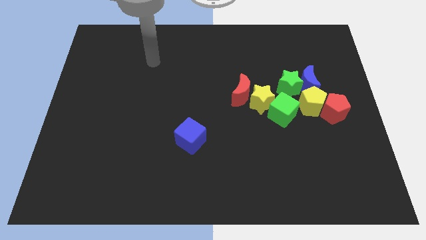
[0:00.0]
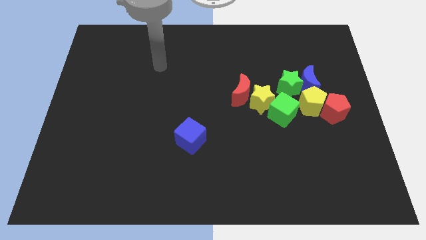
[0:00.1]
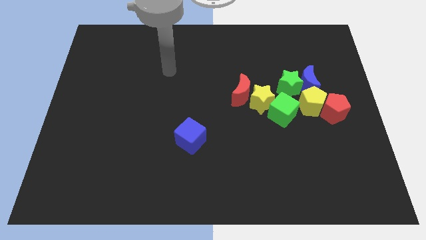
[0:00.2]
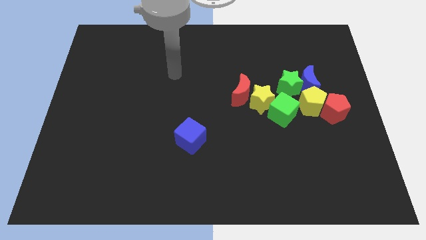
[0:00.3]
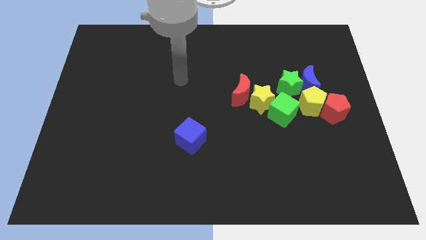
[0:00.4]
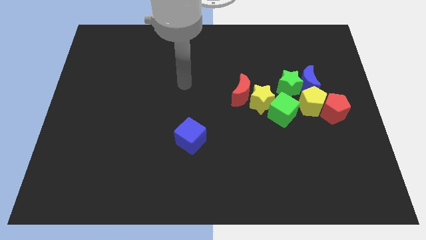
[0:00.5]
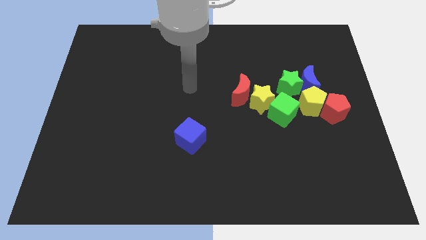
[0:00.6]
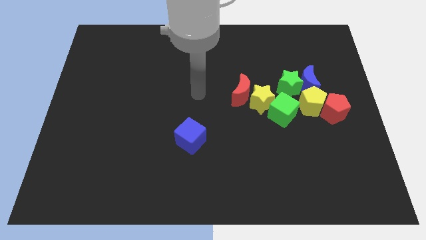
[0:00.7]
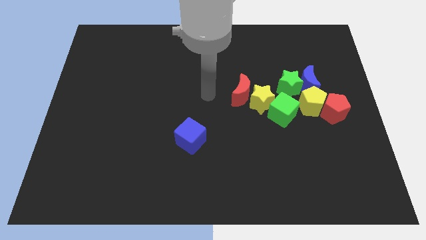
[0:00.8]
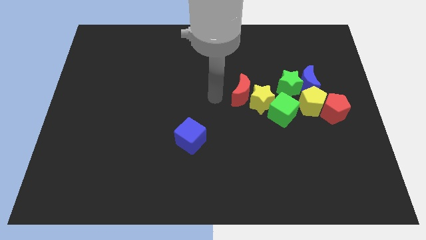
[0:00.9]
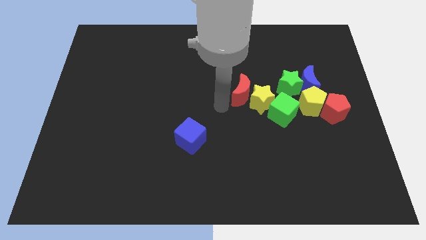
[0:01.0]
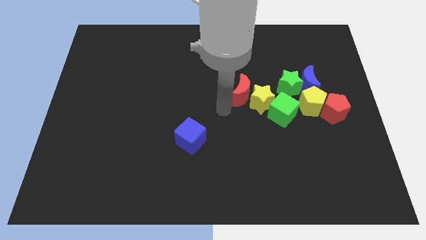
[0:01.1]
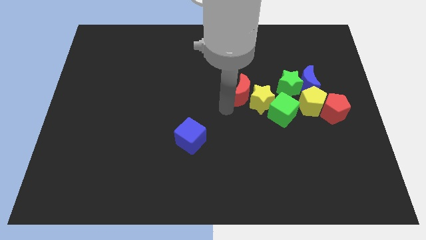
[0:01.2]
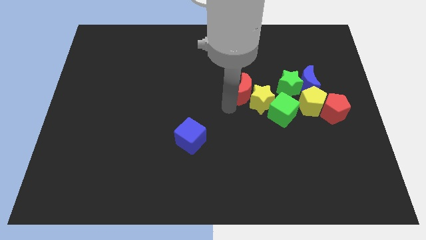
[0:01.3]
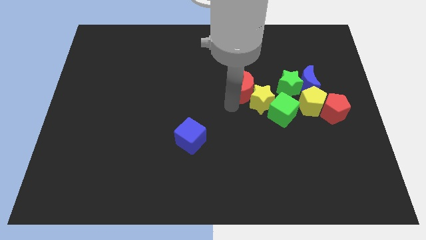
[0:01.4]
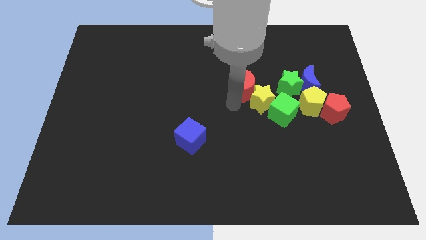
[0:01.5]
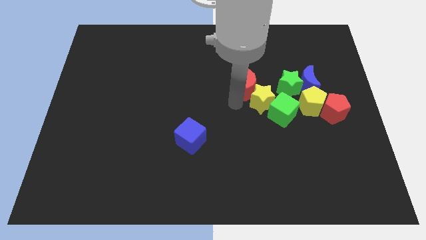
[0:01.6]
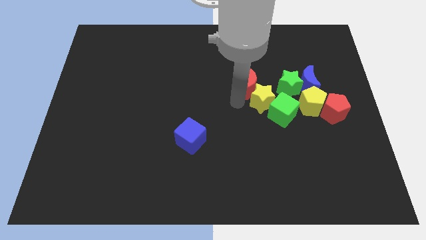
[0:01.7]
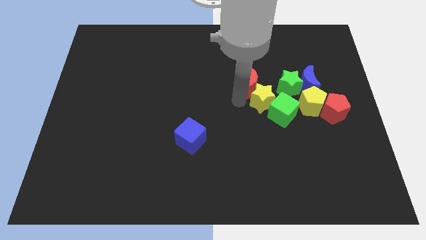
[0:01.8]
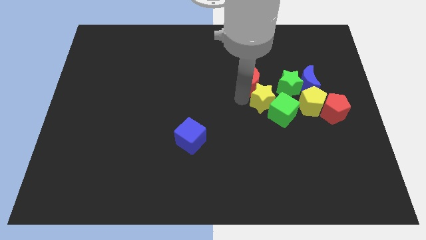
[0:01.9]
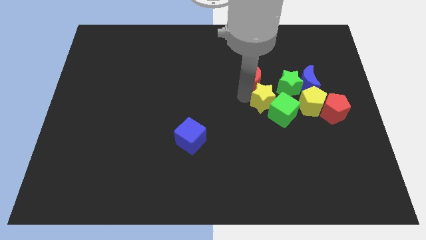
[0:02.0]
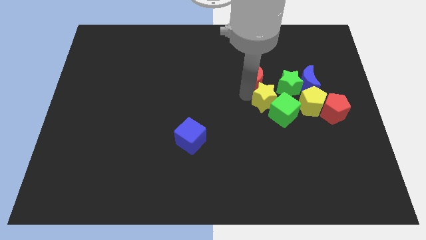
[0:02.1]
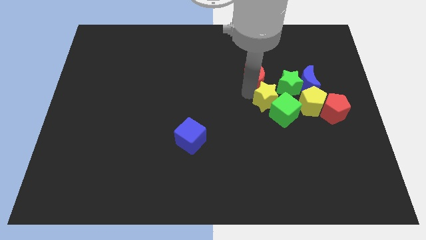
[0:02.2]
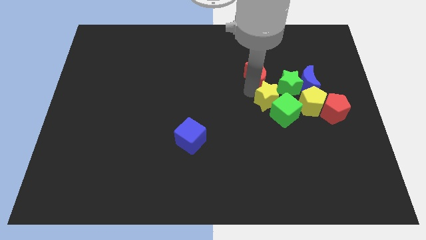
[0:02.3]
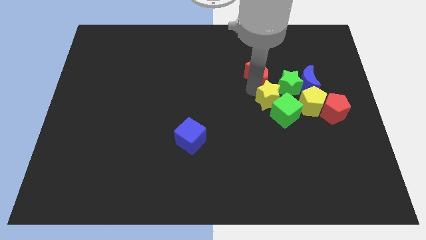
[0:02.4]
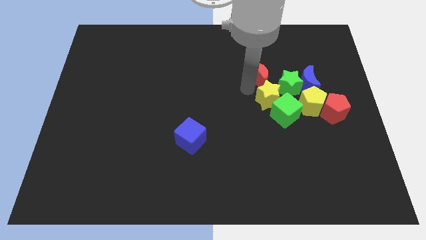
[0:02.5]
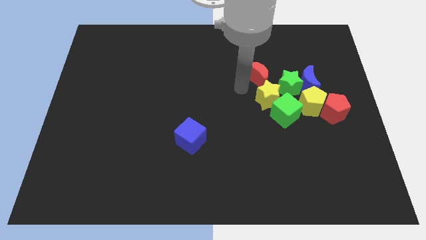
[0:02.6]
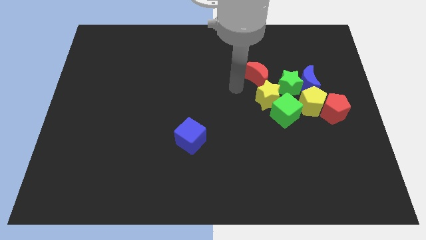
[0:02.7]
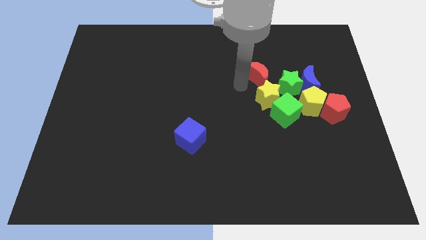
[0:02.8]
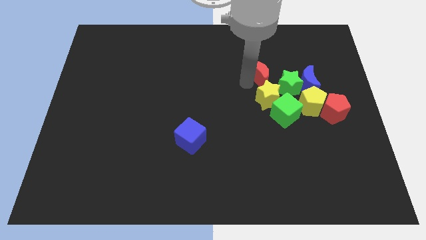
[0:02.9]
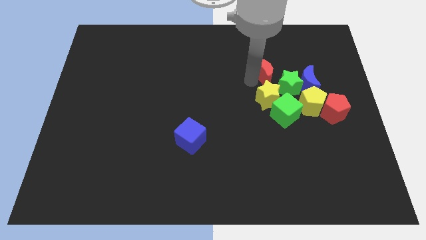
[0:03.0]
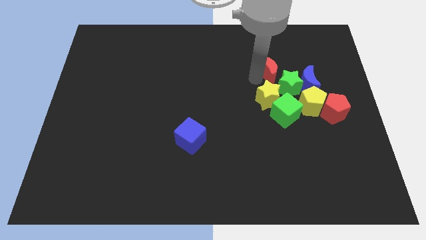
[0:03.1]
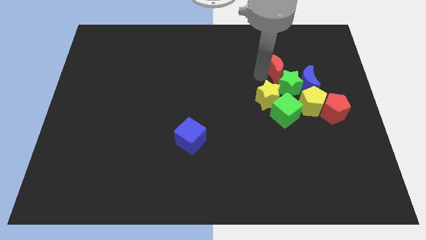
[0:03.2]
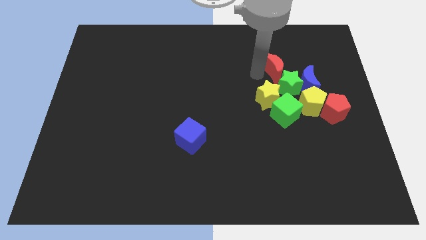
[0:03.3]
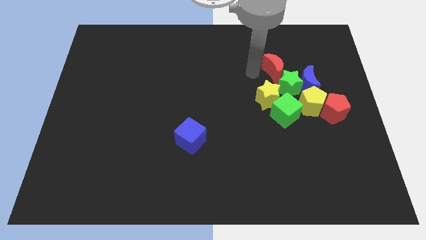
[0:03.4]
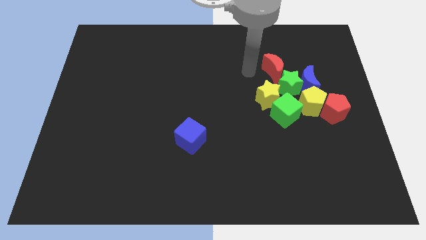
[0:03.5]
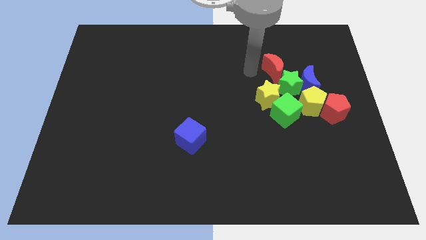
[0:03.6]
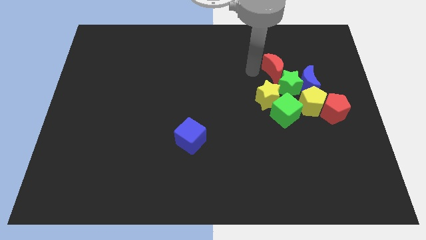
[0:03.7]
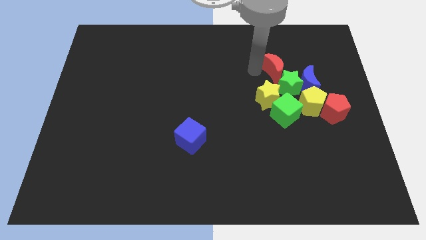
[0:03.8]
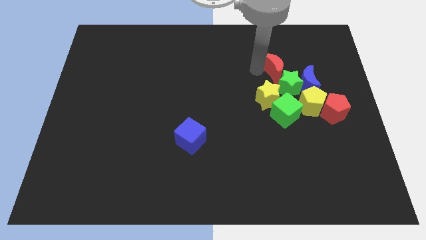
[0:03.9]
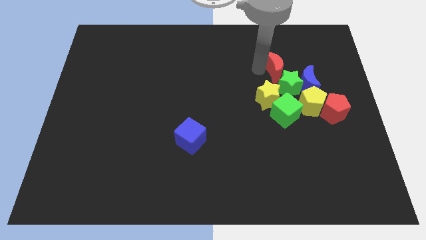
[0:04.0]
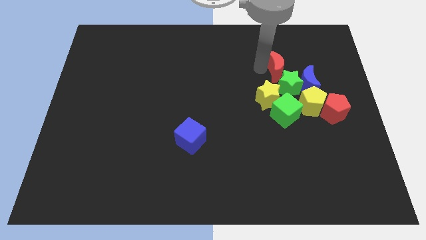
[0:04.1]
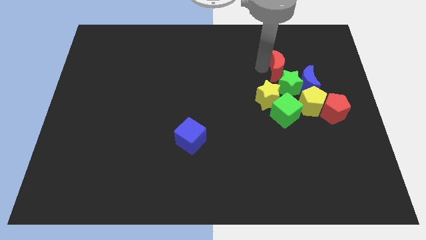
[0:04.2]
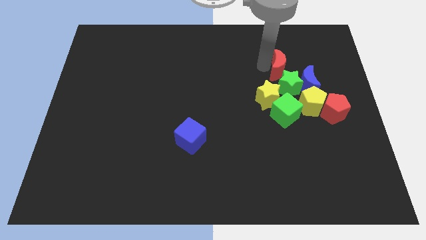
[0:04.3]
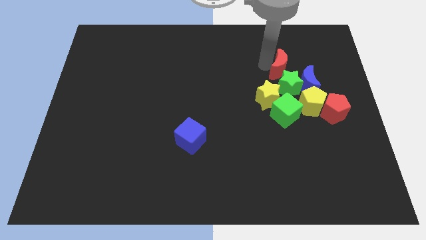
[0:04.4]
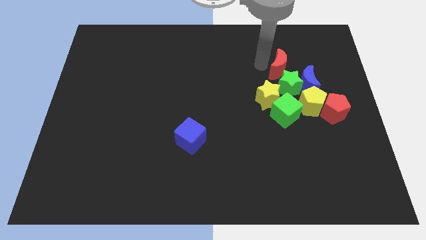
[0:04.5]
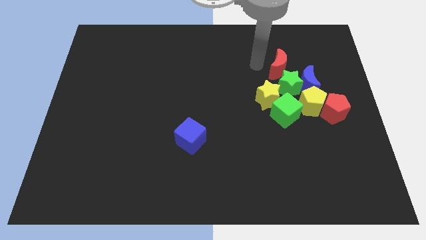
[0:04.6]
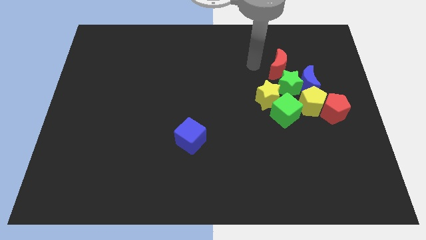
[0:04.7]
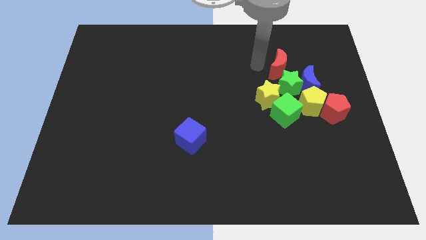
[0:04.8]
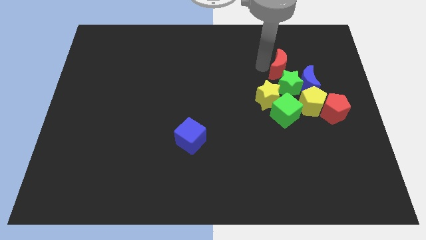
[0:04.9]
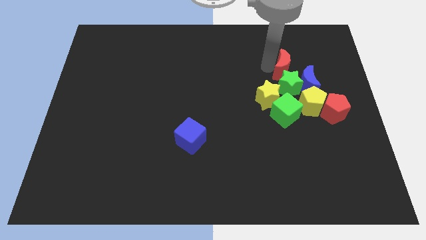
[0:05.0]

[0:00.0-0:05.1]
move the red moon to the right slightly

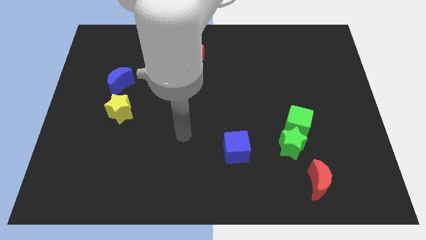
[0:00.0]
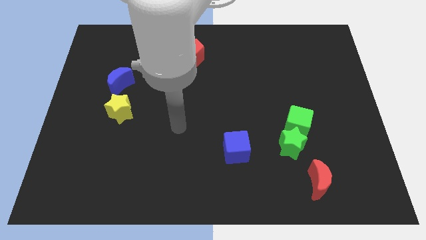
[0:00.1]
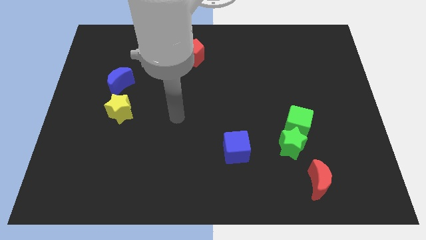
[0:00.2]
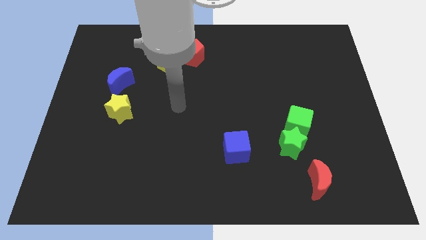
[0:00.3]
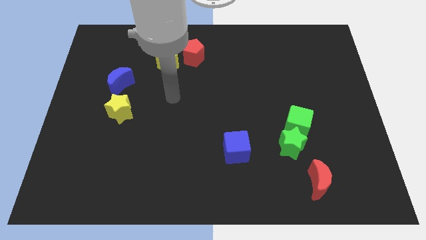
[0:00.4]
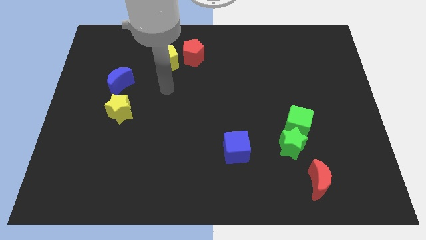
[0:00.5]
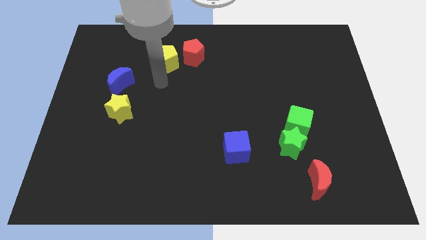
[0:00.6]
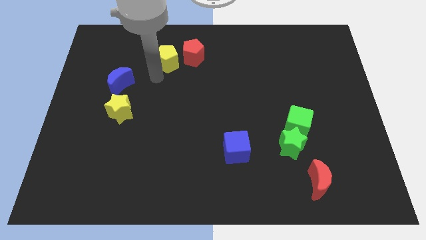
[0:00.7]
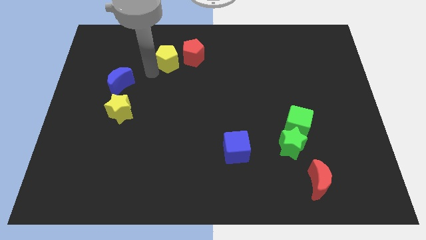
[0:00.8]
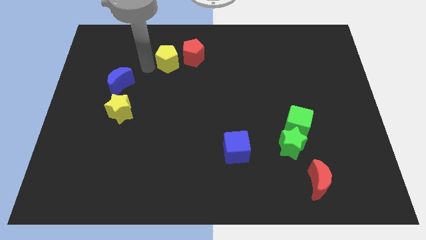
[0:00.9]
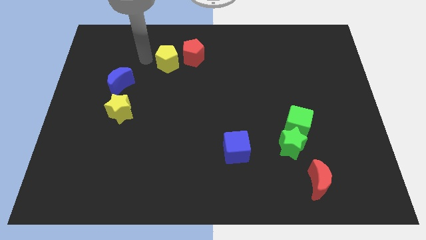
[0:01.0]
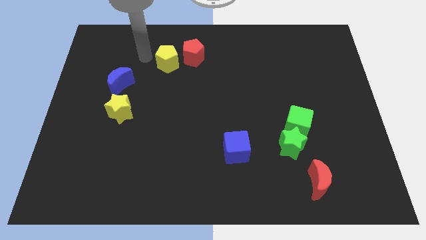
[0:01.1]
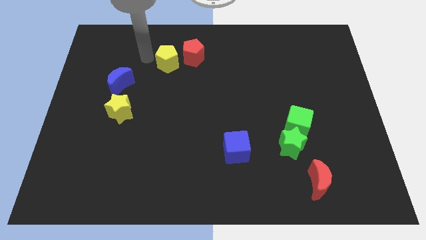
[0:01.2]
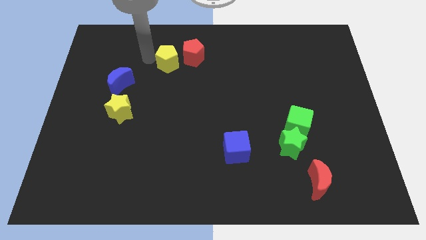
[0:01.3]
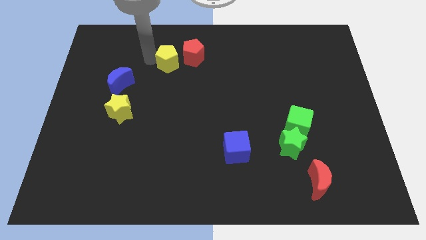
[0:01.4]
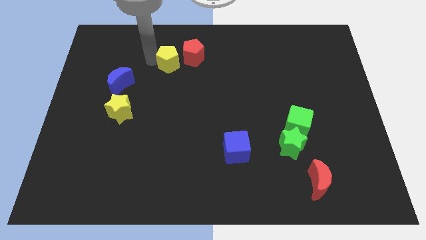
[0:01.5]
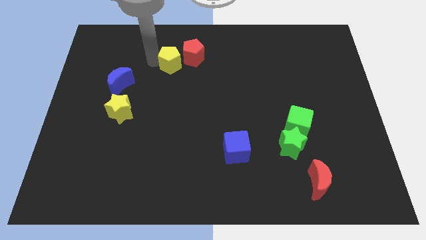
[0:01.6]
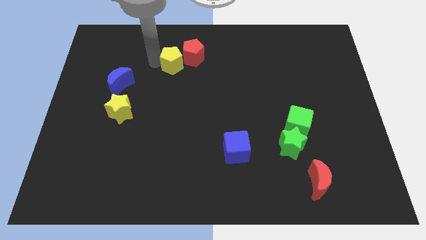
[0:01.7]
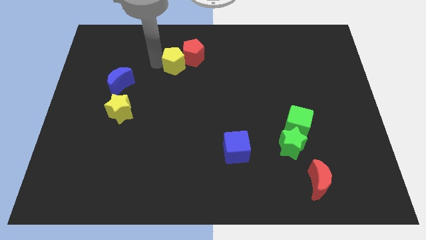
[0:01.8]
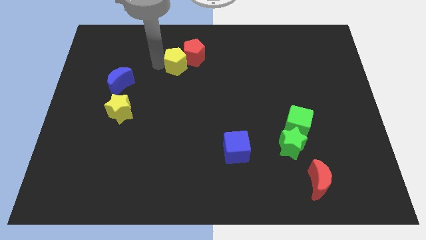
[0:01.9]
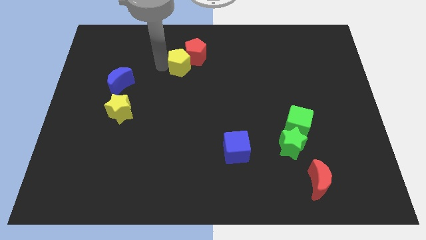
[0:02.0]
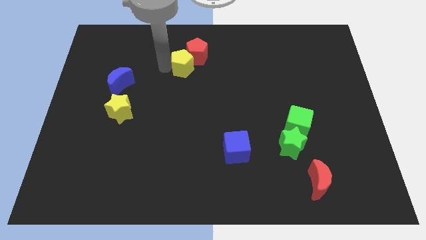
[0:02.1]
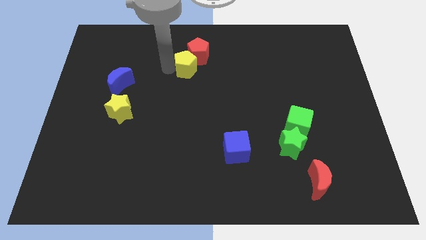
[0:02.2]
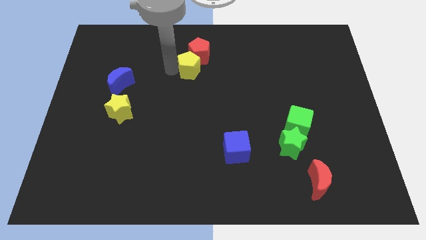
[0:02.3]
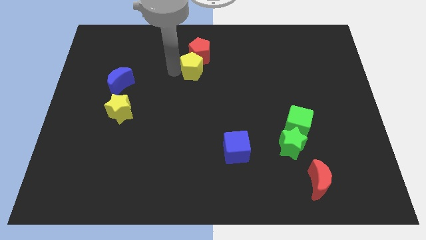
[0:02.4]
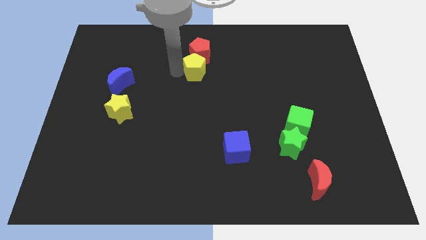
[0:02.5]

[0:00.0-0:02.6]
slightly move the yellow pentagon to the right

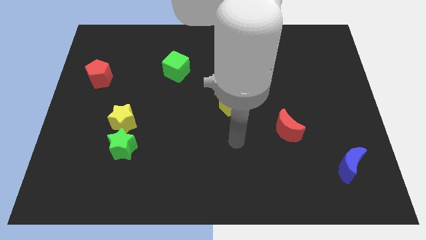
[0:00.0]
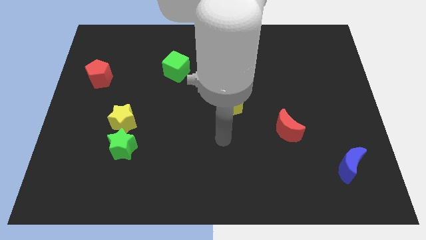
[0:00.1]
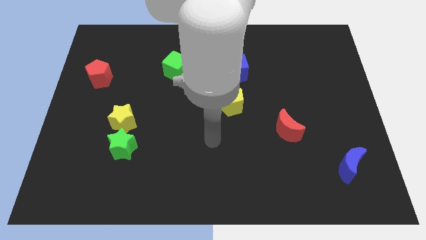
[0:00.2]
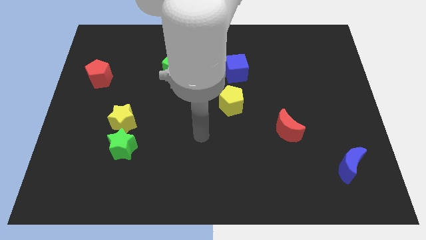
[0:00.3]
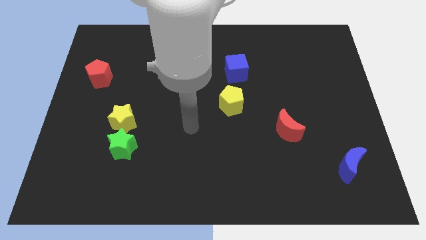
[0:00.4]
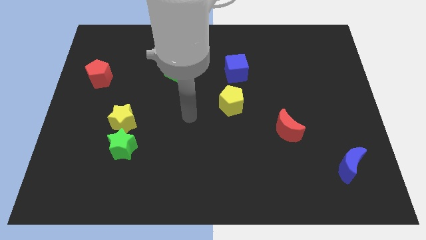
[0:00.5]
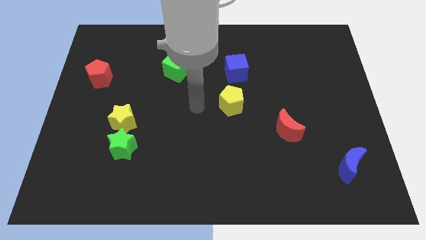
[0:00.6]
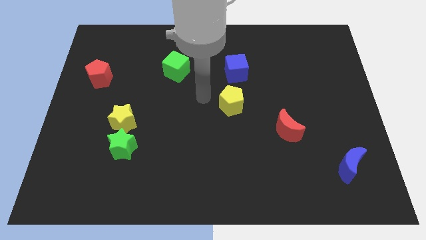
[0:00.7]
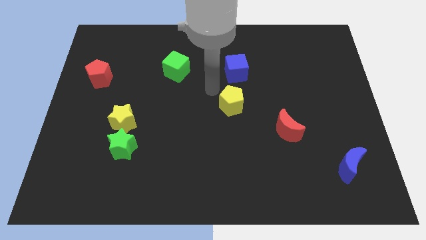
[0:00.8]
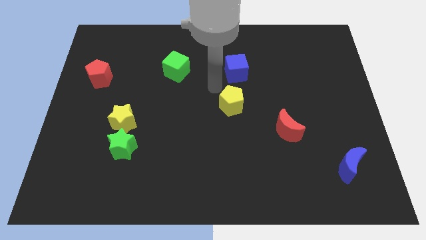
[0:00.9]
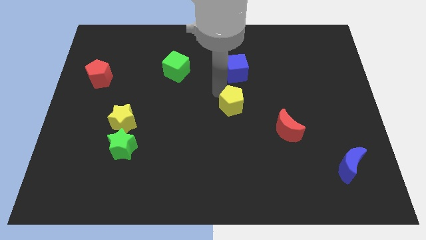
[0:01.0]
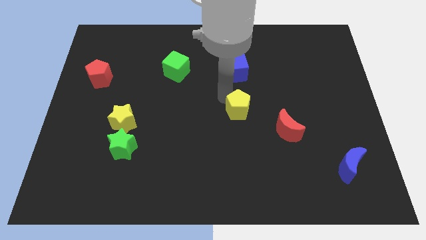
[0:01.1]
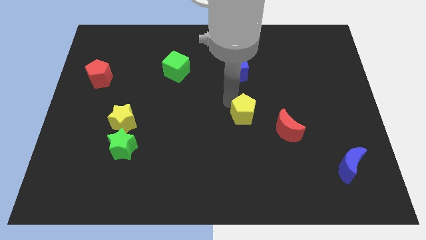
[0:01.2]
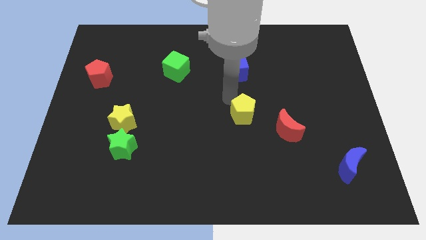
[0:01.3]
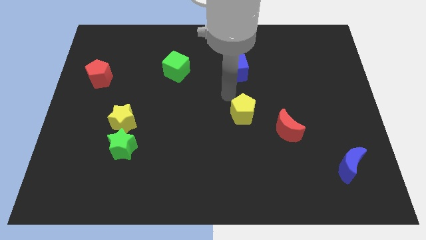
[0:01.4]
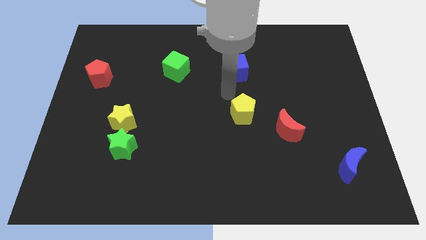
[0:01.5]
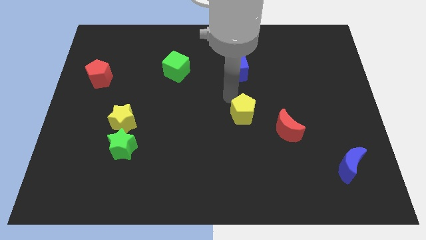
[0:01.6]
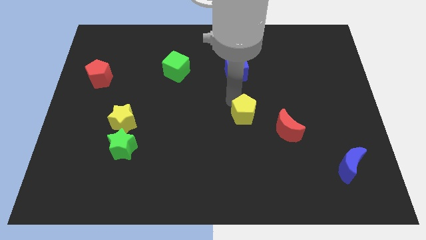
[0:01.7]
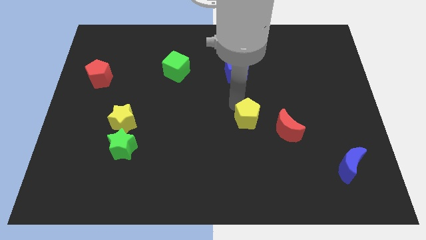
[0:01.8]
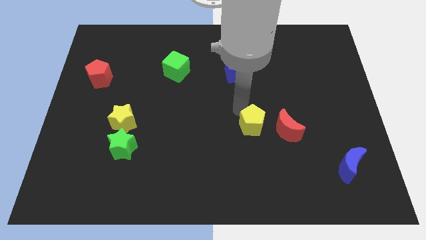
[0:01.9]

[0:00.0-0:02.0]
move the yellow pentagon downwards and right diagonally somewhat
